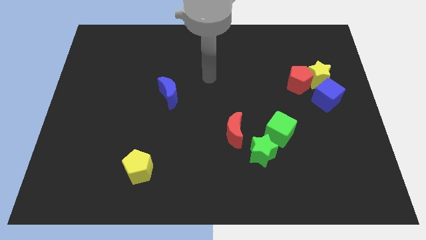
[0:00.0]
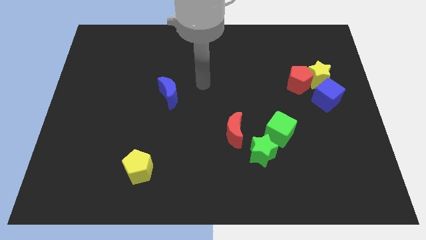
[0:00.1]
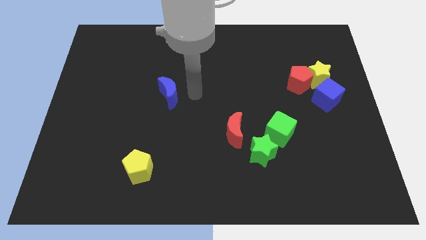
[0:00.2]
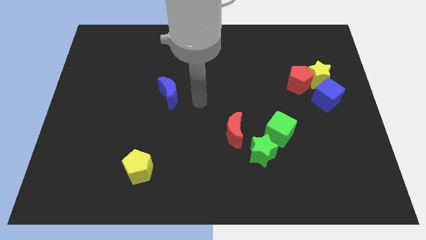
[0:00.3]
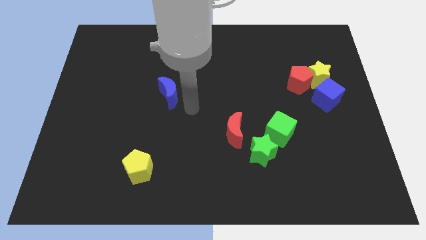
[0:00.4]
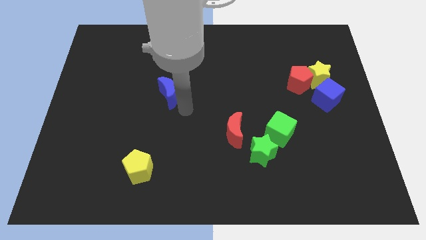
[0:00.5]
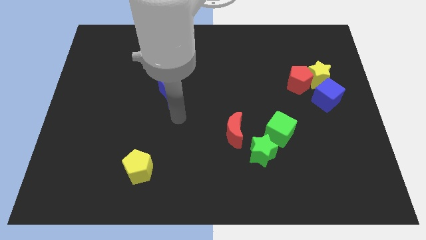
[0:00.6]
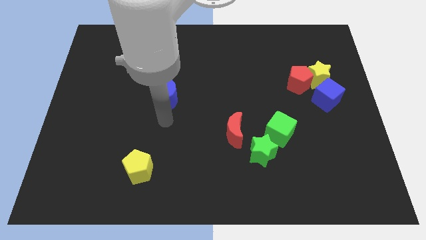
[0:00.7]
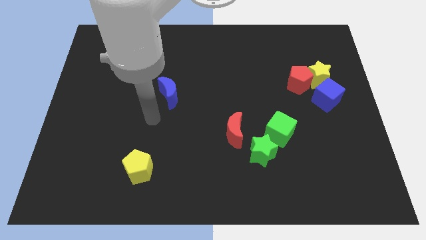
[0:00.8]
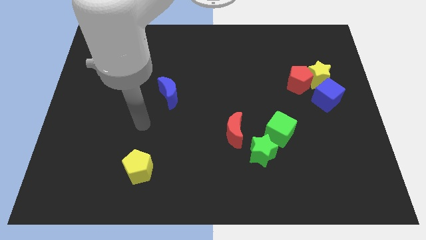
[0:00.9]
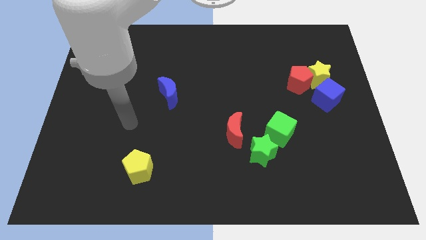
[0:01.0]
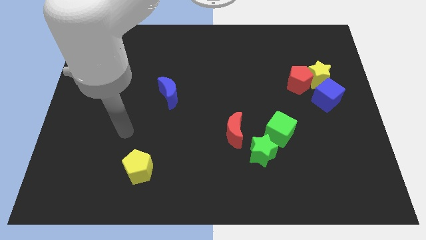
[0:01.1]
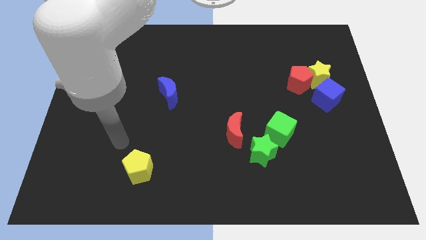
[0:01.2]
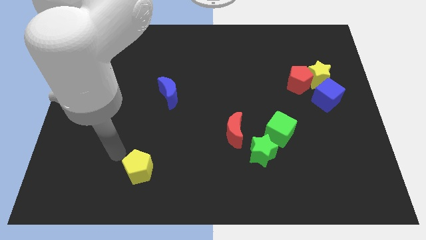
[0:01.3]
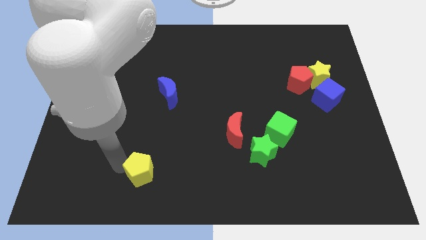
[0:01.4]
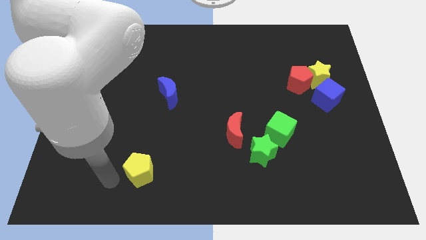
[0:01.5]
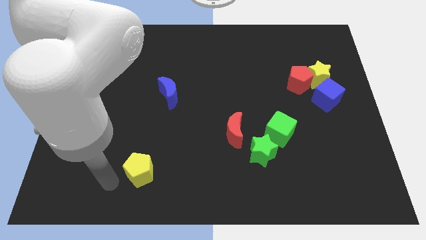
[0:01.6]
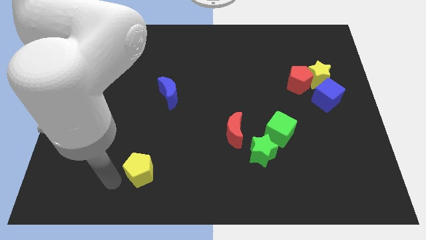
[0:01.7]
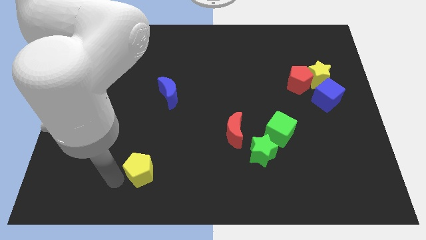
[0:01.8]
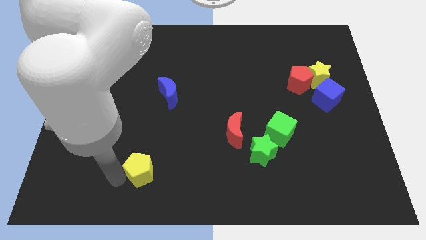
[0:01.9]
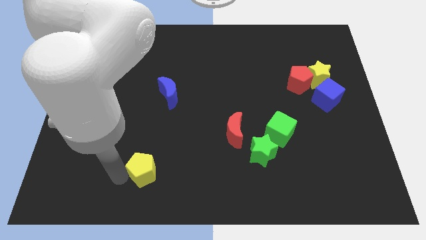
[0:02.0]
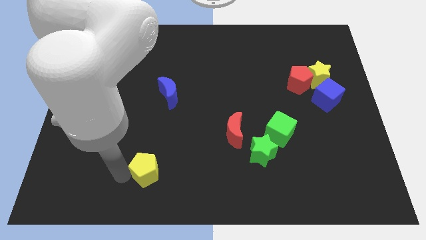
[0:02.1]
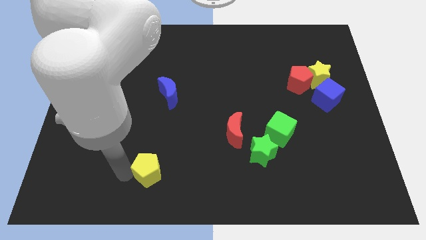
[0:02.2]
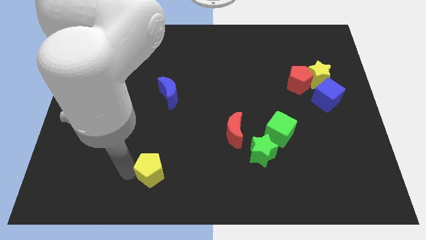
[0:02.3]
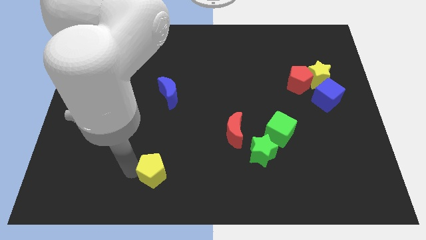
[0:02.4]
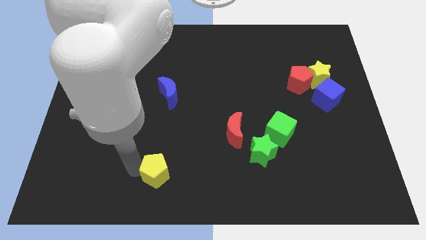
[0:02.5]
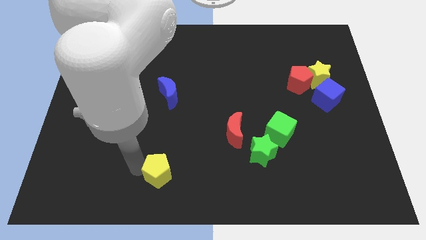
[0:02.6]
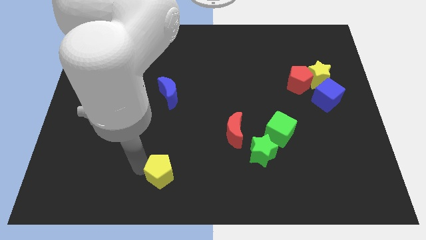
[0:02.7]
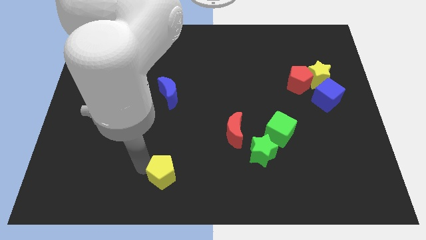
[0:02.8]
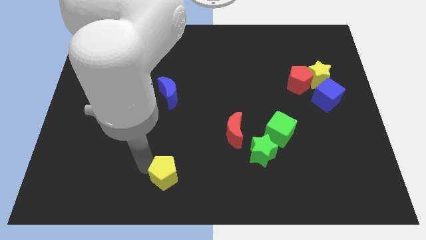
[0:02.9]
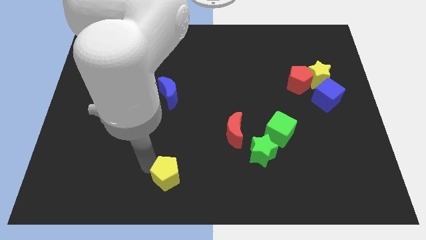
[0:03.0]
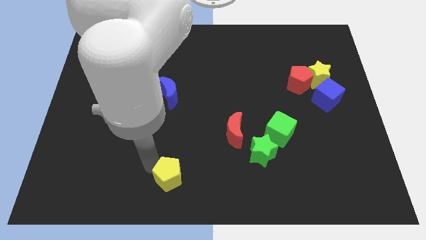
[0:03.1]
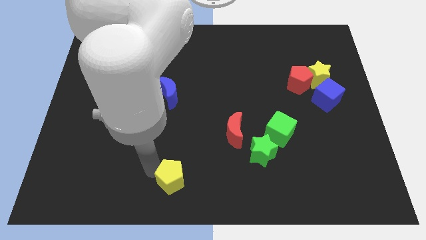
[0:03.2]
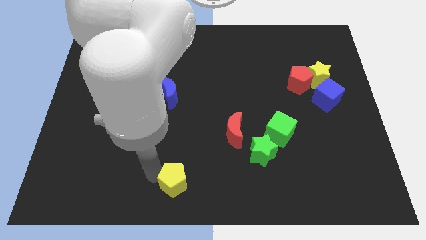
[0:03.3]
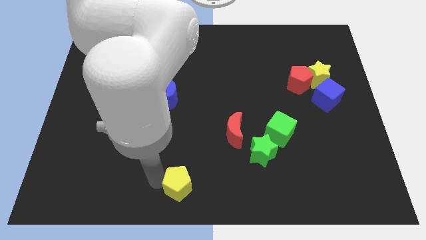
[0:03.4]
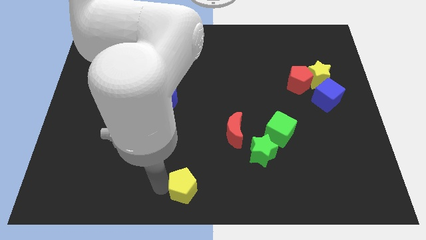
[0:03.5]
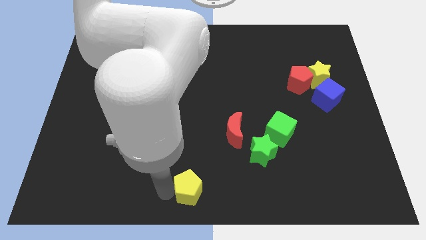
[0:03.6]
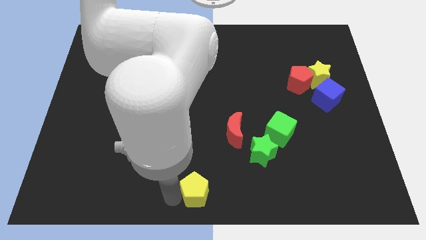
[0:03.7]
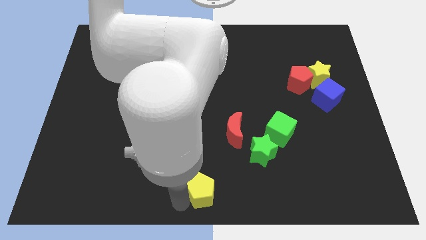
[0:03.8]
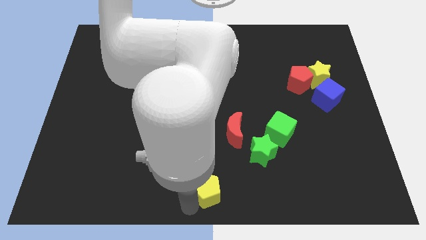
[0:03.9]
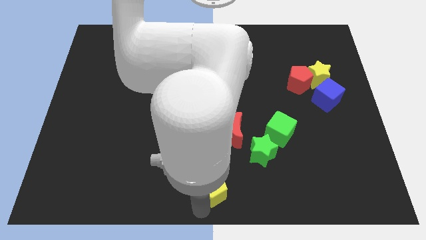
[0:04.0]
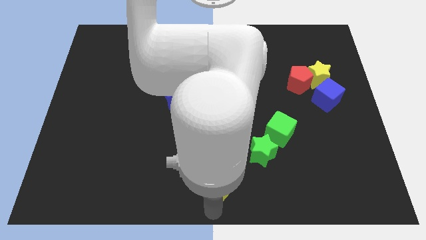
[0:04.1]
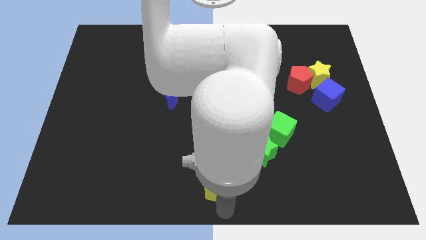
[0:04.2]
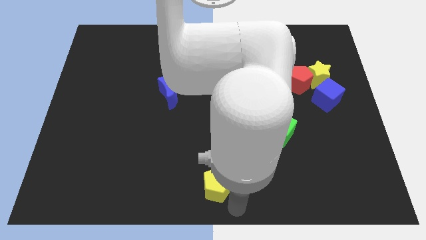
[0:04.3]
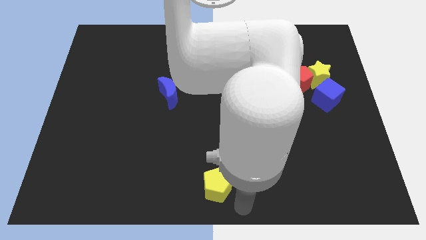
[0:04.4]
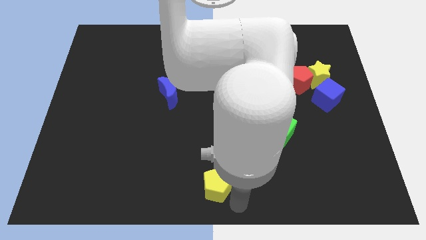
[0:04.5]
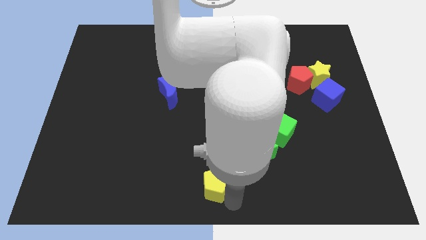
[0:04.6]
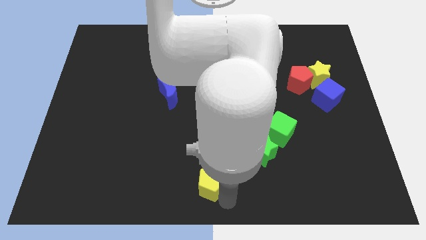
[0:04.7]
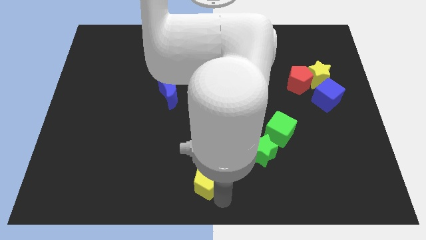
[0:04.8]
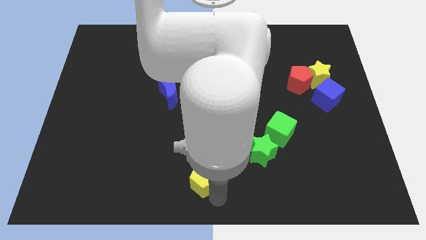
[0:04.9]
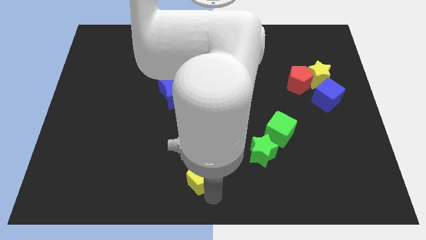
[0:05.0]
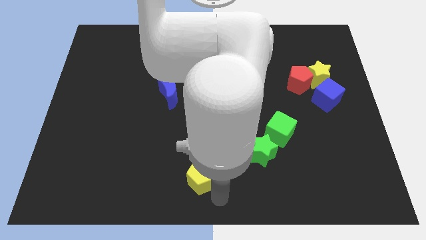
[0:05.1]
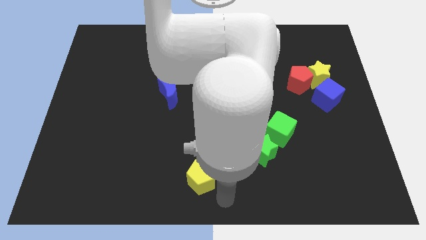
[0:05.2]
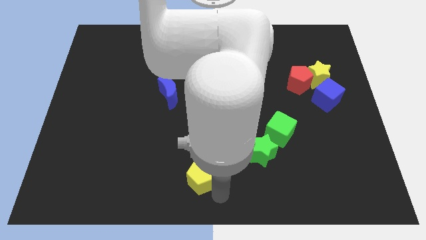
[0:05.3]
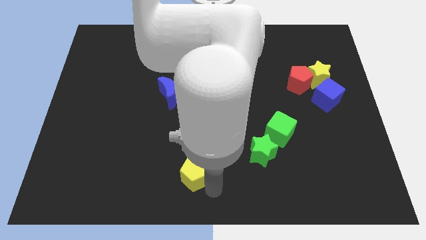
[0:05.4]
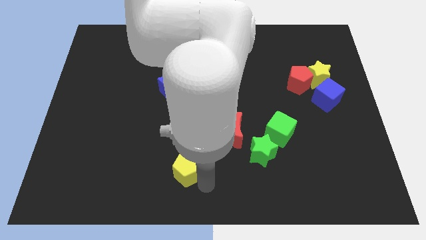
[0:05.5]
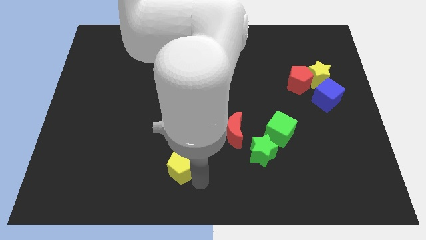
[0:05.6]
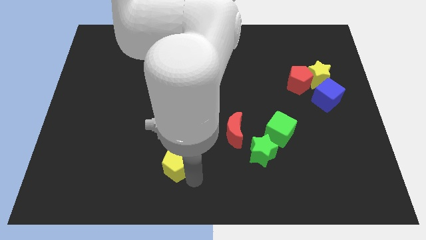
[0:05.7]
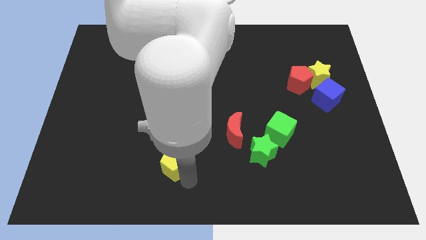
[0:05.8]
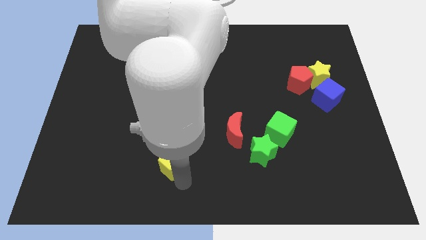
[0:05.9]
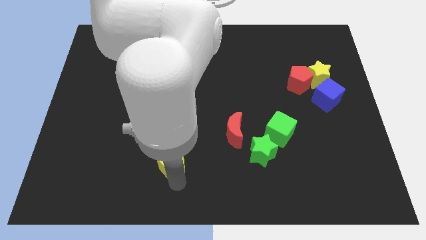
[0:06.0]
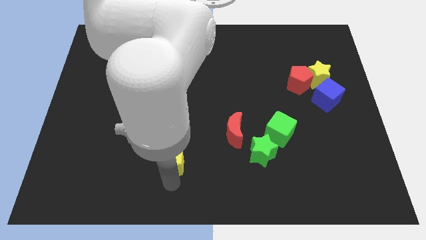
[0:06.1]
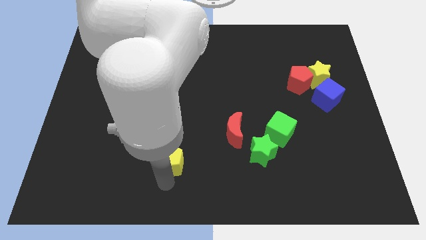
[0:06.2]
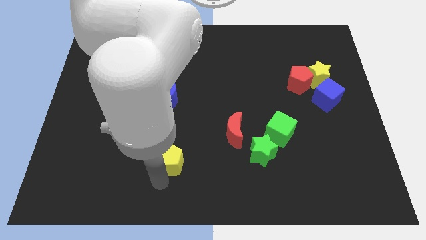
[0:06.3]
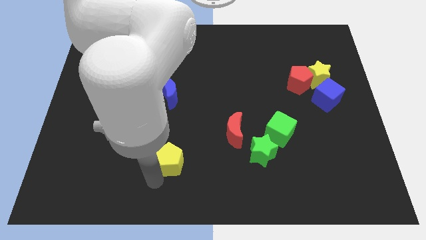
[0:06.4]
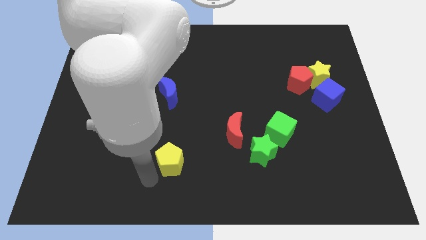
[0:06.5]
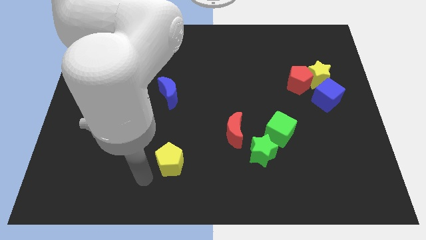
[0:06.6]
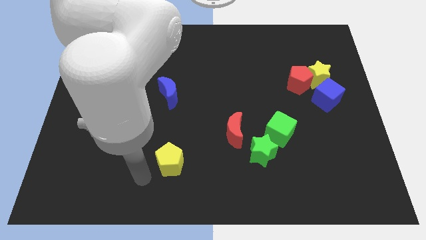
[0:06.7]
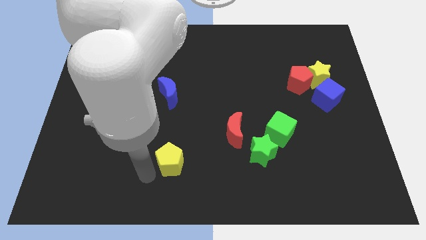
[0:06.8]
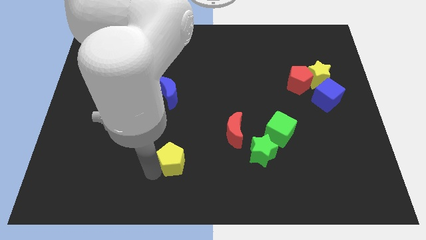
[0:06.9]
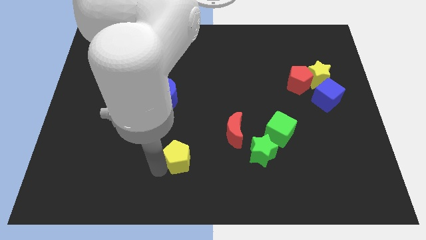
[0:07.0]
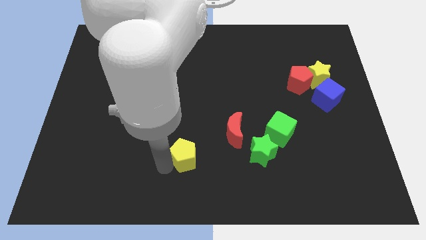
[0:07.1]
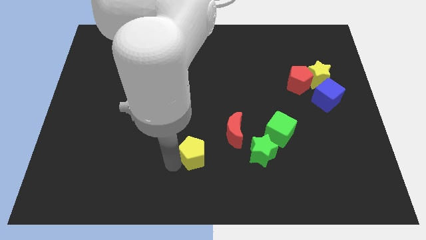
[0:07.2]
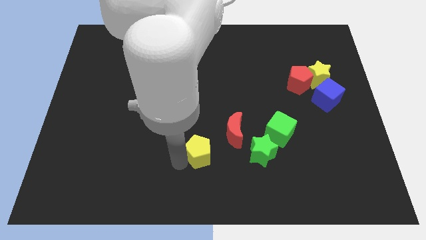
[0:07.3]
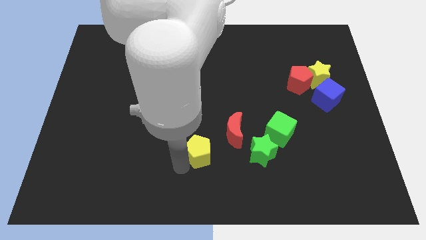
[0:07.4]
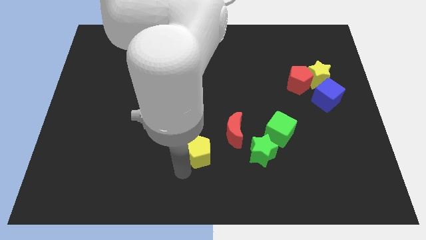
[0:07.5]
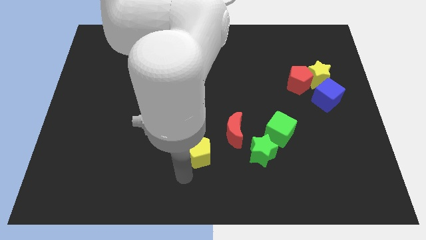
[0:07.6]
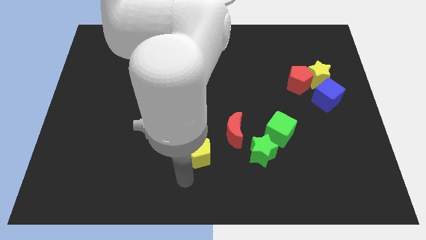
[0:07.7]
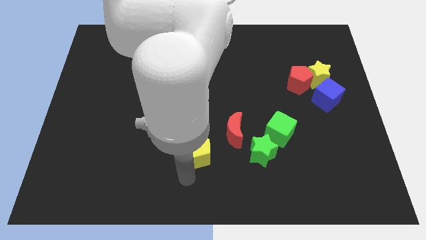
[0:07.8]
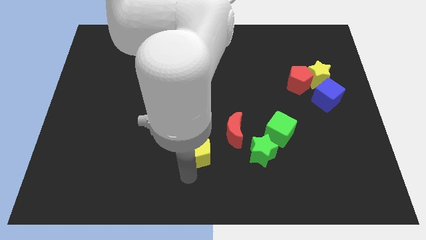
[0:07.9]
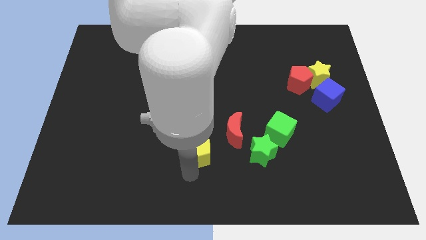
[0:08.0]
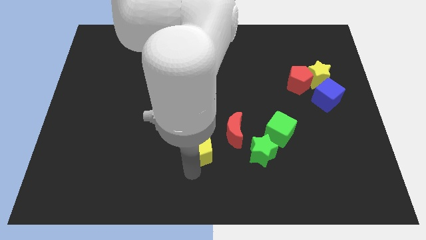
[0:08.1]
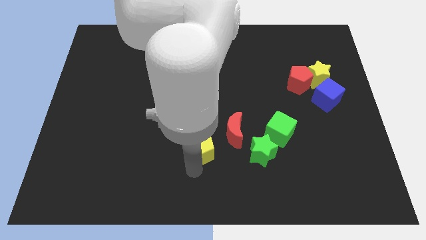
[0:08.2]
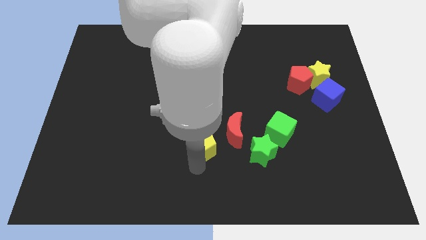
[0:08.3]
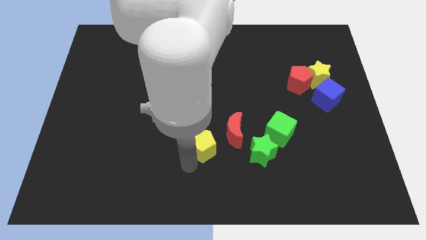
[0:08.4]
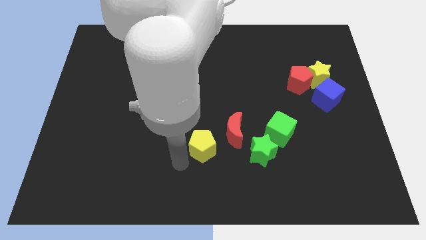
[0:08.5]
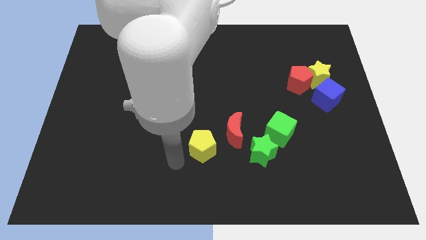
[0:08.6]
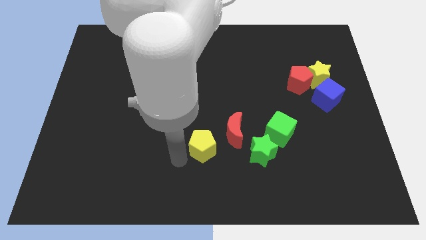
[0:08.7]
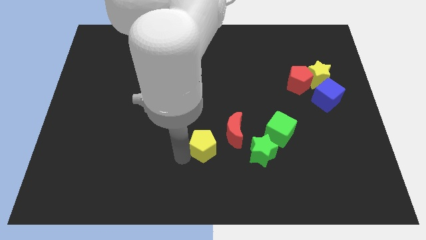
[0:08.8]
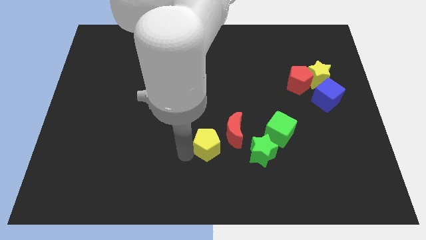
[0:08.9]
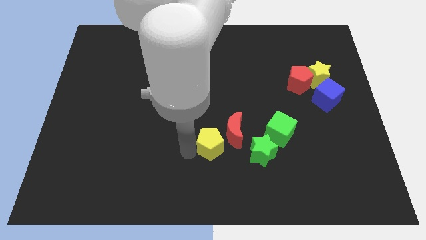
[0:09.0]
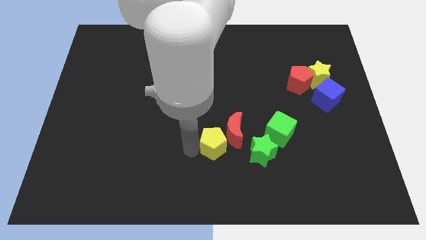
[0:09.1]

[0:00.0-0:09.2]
put the yellow pentagon next to the red moon
